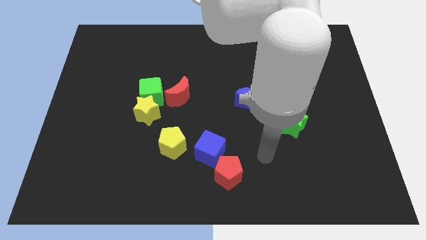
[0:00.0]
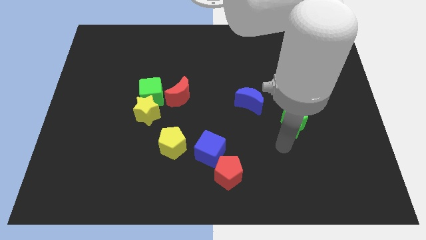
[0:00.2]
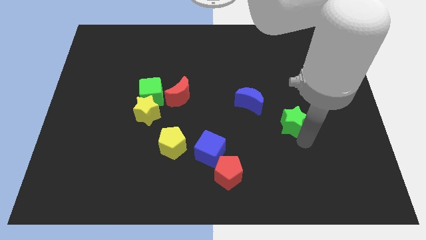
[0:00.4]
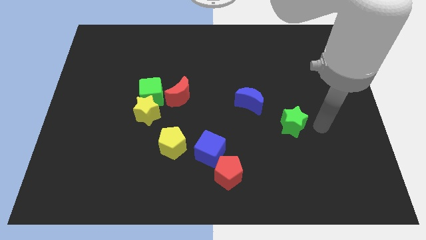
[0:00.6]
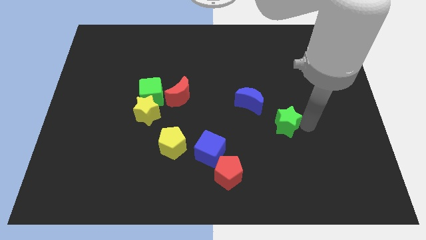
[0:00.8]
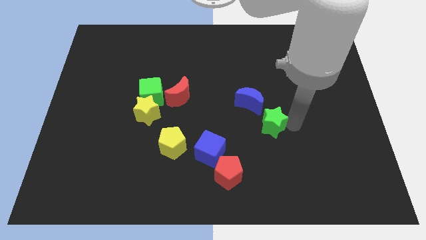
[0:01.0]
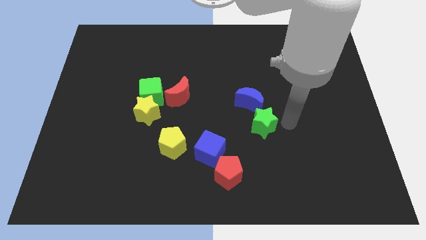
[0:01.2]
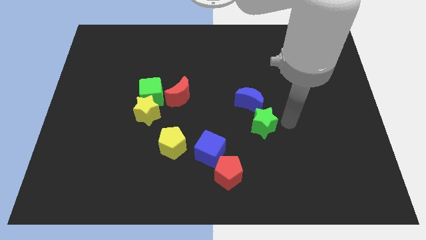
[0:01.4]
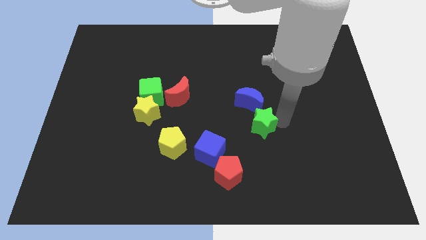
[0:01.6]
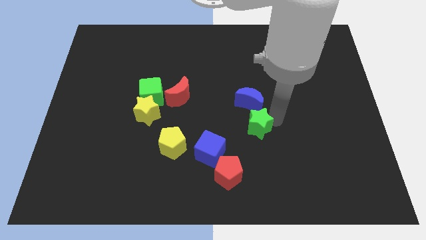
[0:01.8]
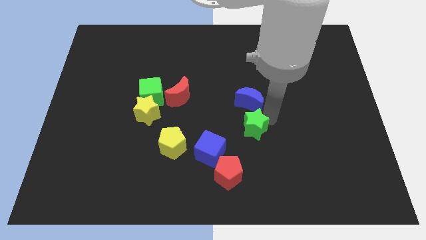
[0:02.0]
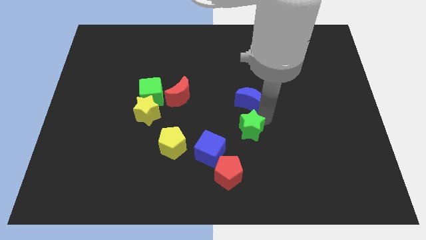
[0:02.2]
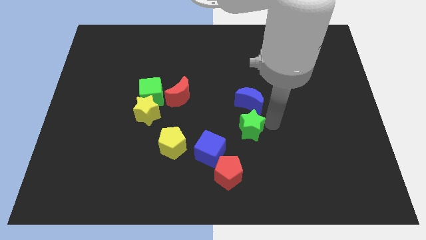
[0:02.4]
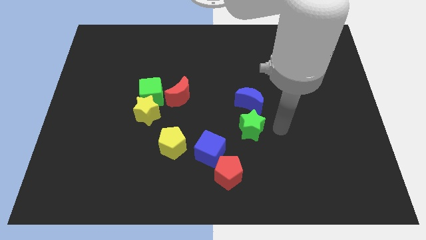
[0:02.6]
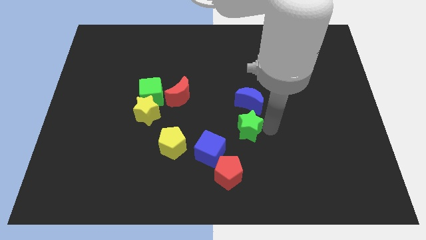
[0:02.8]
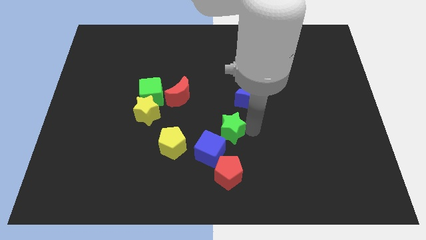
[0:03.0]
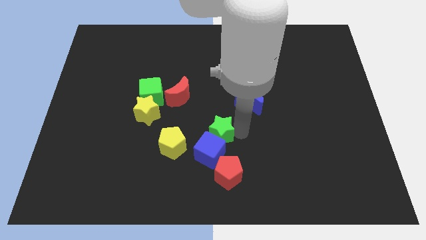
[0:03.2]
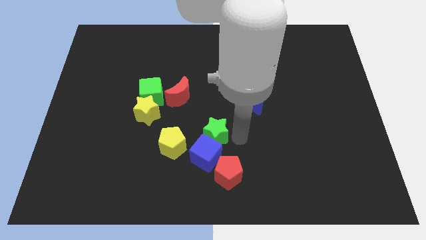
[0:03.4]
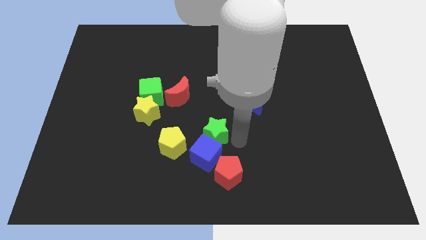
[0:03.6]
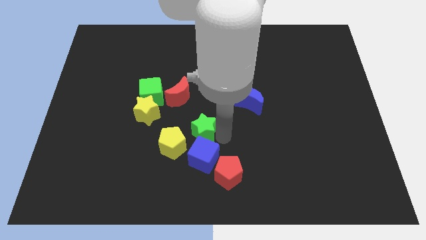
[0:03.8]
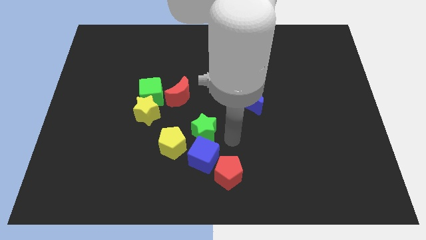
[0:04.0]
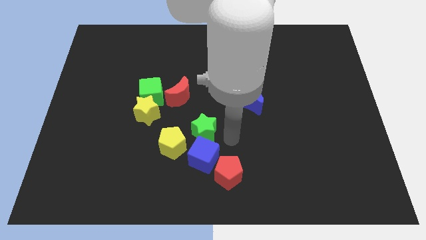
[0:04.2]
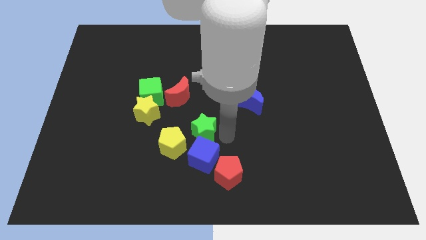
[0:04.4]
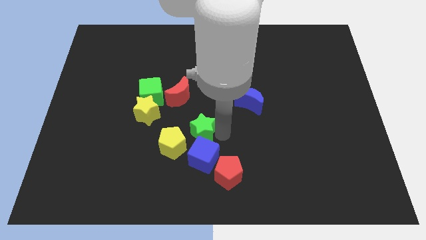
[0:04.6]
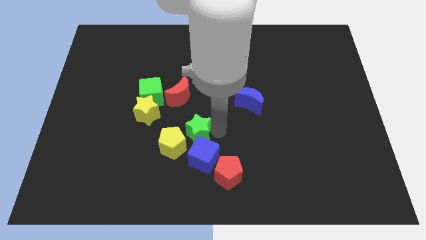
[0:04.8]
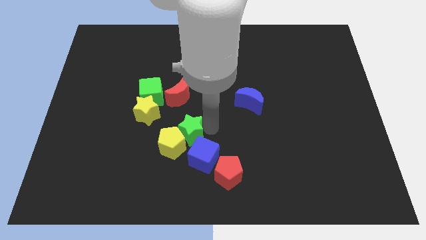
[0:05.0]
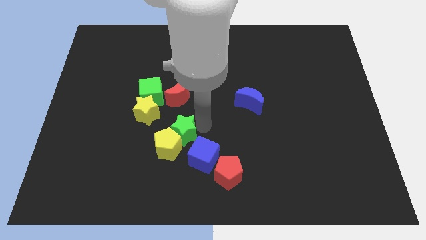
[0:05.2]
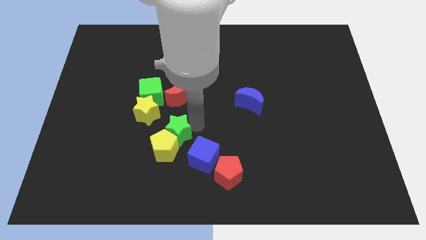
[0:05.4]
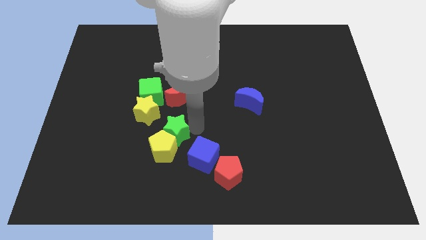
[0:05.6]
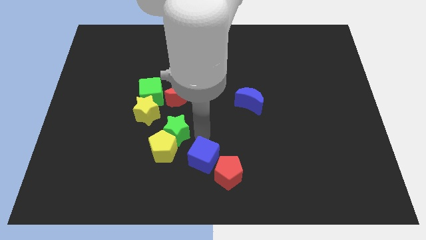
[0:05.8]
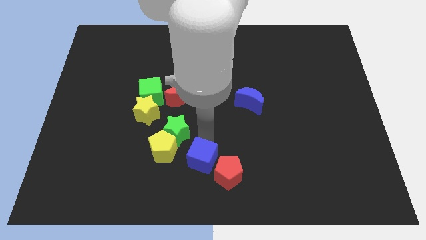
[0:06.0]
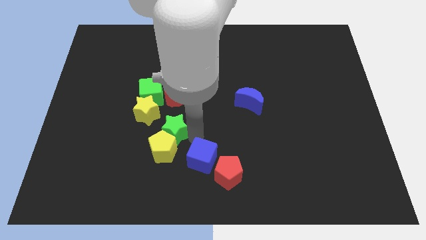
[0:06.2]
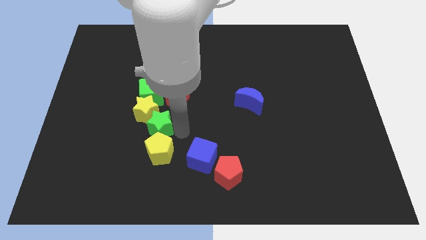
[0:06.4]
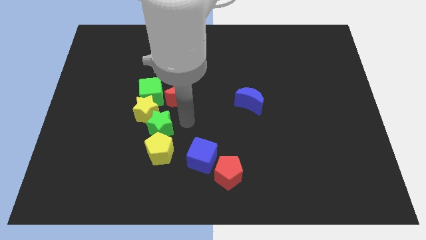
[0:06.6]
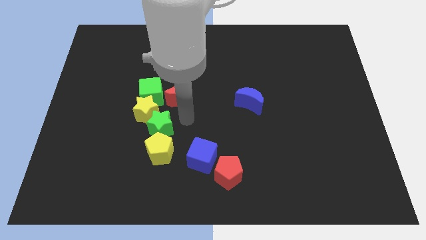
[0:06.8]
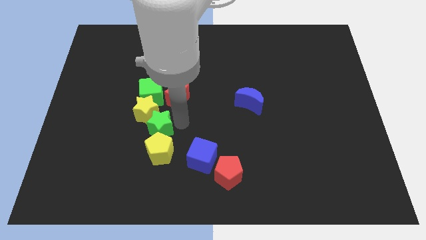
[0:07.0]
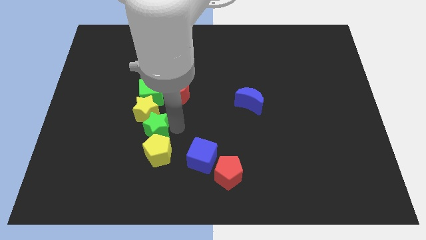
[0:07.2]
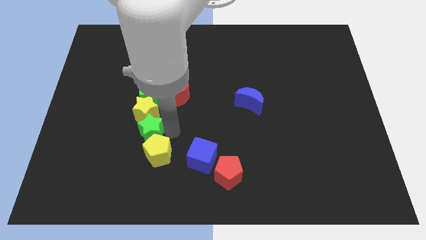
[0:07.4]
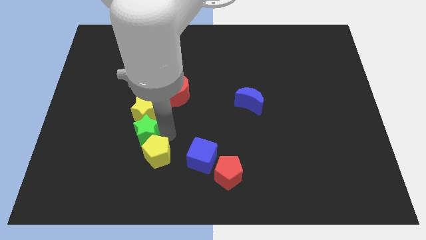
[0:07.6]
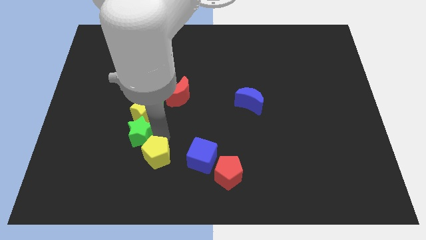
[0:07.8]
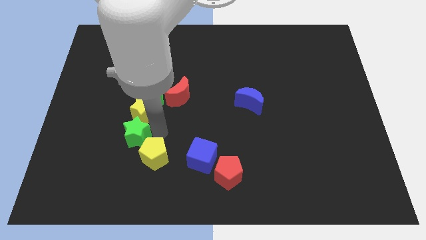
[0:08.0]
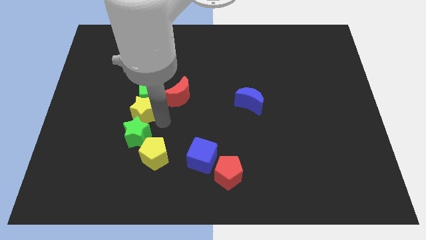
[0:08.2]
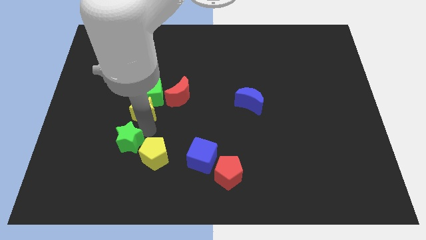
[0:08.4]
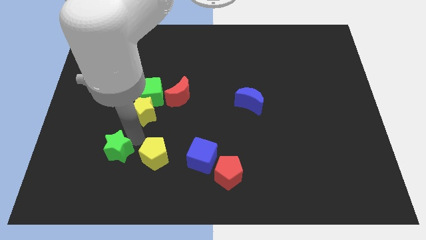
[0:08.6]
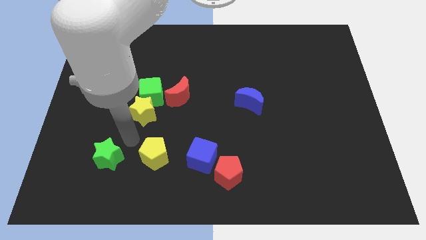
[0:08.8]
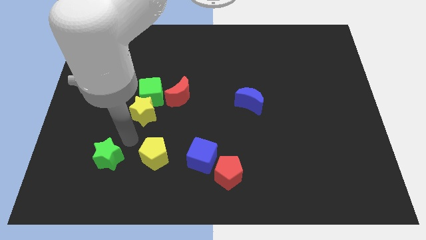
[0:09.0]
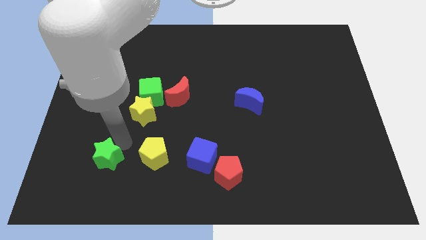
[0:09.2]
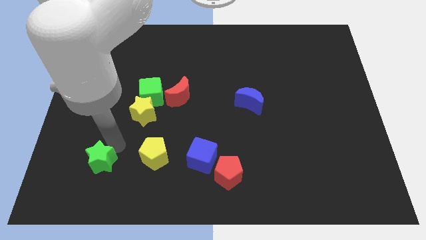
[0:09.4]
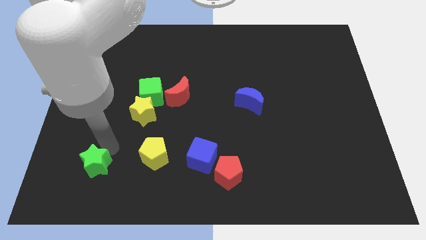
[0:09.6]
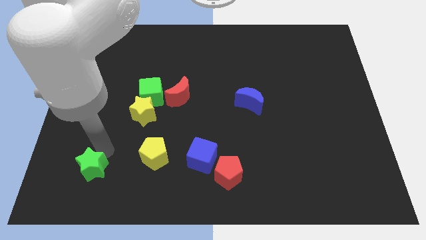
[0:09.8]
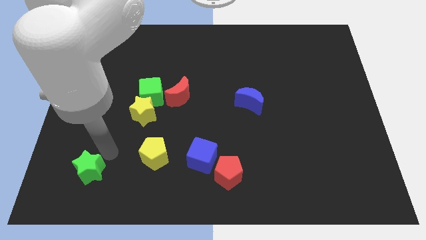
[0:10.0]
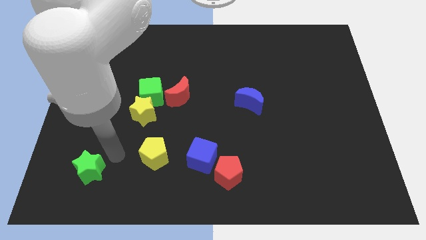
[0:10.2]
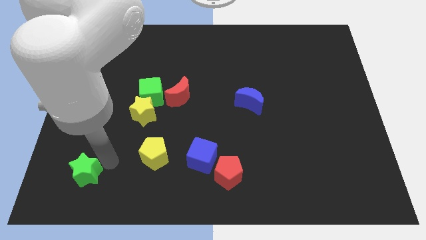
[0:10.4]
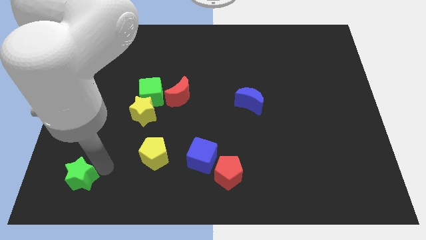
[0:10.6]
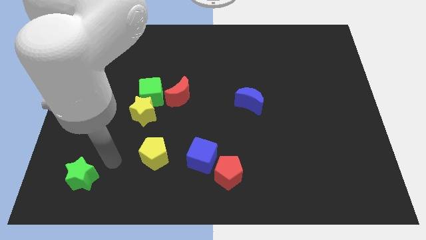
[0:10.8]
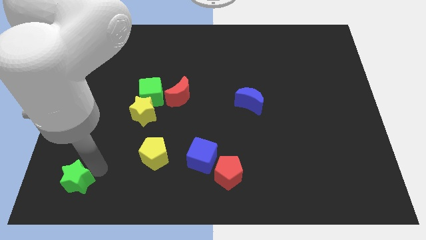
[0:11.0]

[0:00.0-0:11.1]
move the green star to the lower left corner

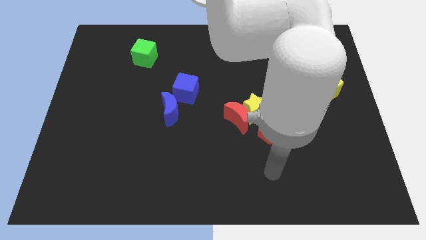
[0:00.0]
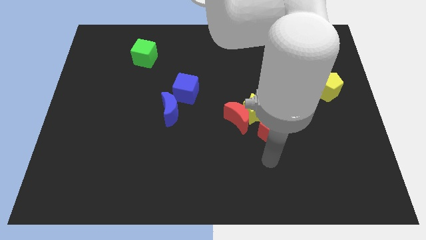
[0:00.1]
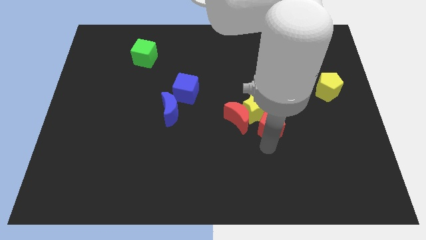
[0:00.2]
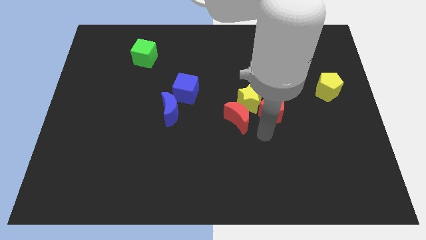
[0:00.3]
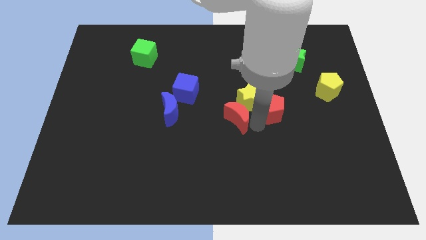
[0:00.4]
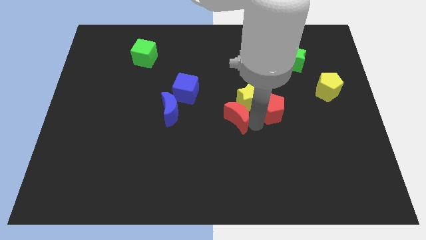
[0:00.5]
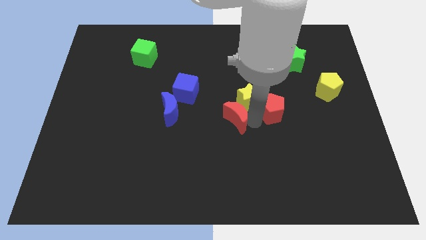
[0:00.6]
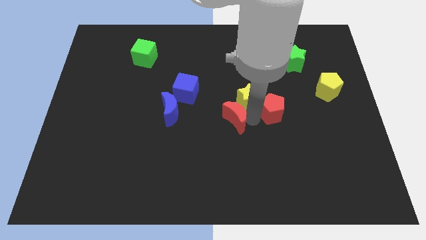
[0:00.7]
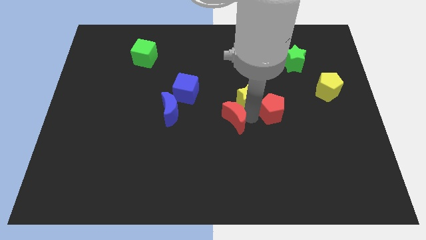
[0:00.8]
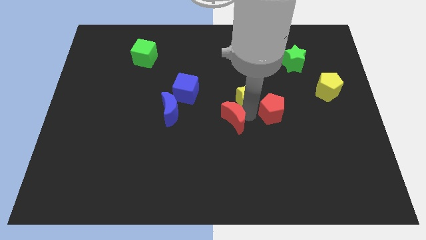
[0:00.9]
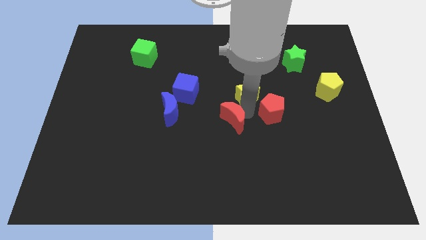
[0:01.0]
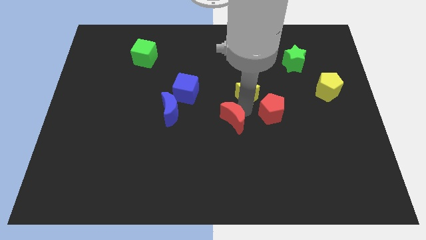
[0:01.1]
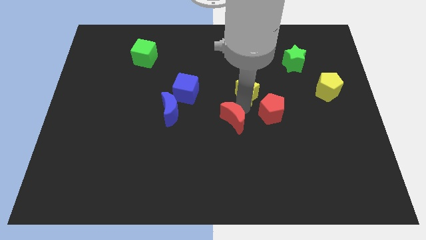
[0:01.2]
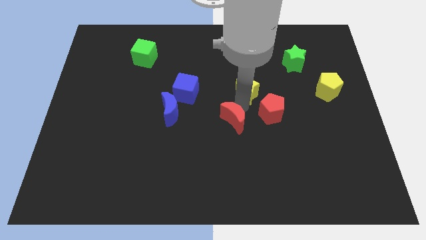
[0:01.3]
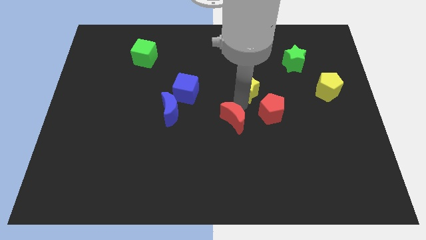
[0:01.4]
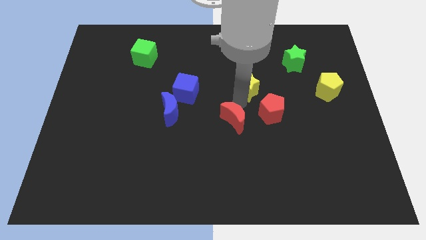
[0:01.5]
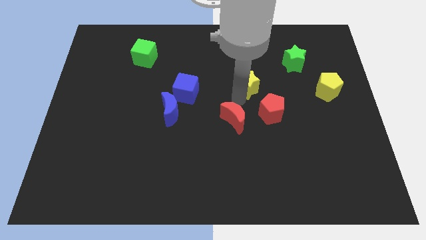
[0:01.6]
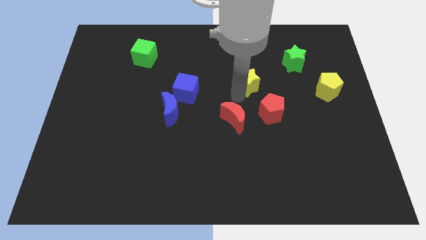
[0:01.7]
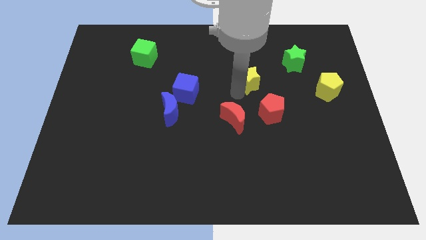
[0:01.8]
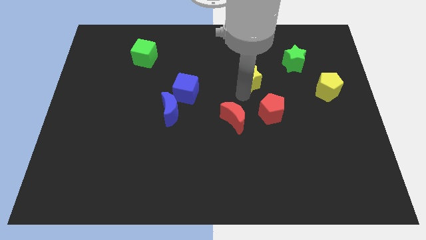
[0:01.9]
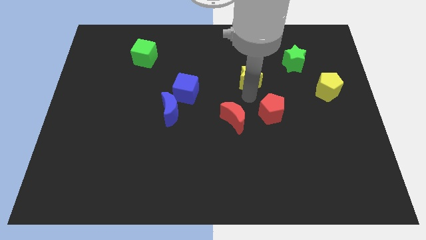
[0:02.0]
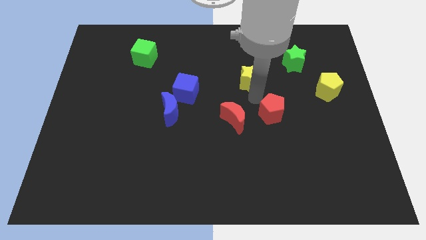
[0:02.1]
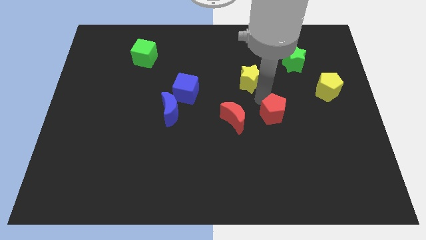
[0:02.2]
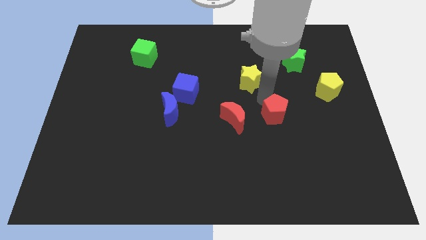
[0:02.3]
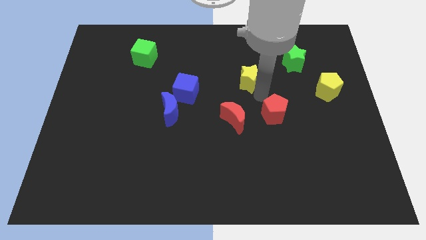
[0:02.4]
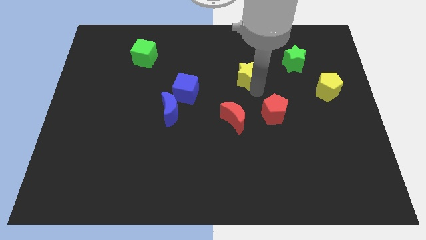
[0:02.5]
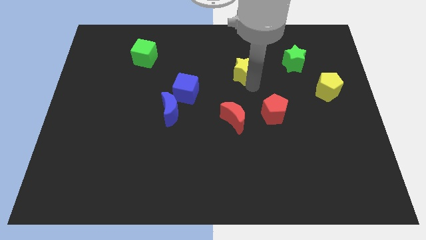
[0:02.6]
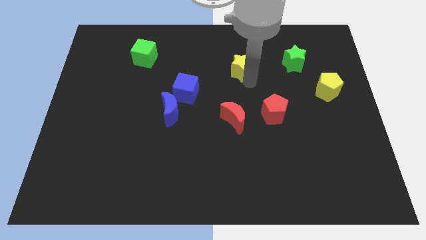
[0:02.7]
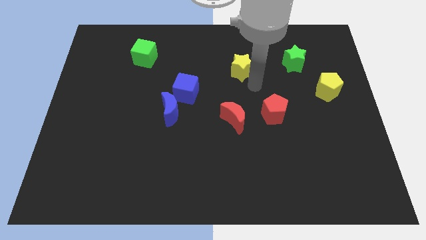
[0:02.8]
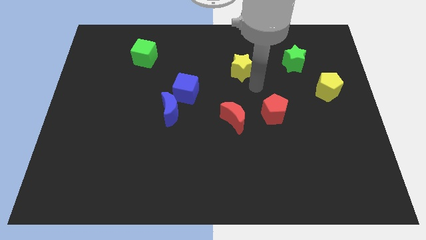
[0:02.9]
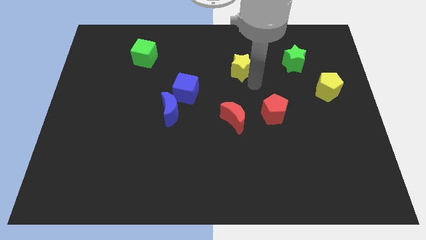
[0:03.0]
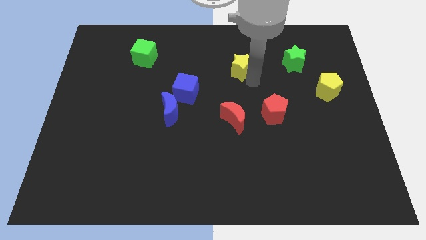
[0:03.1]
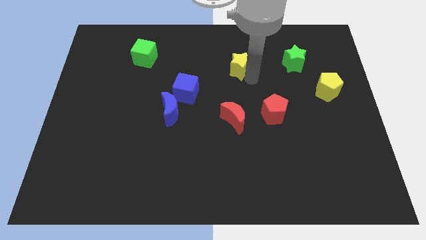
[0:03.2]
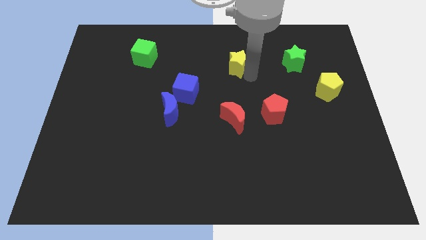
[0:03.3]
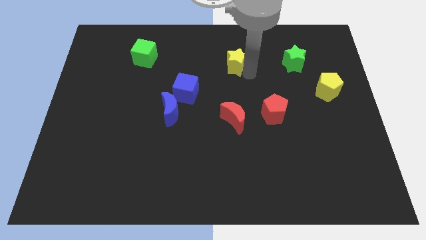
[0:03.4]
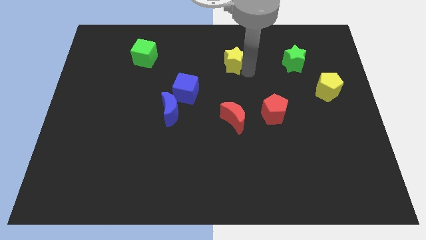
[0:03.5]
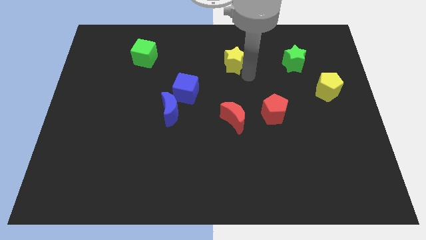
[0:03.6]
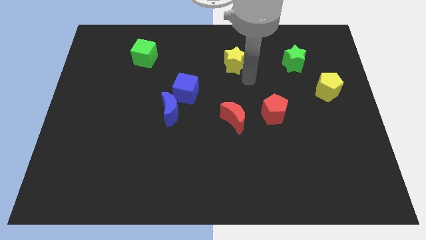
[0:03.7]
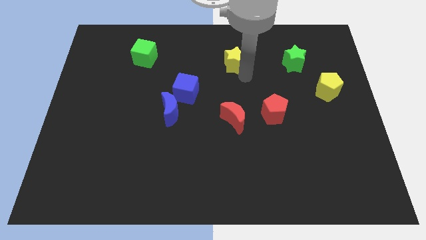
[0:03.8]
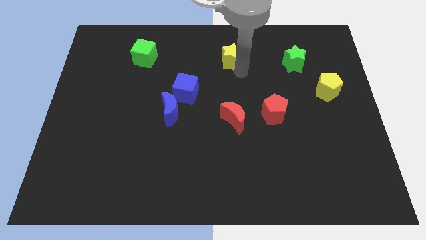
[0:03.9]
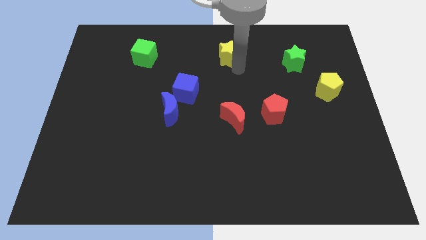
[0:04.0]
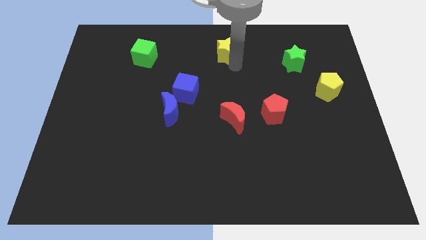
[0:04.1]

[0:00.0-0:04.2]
move the yellow star to the top
